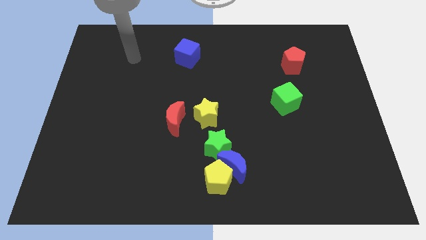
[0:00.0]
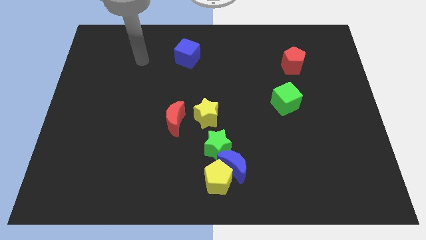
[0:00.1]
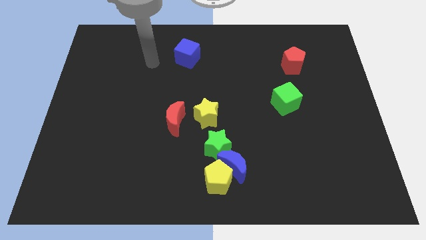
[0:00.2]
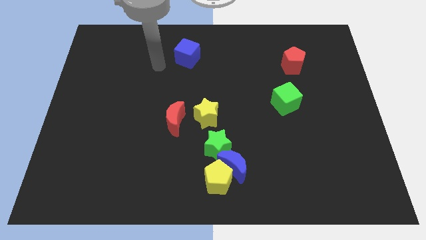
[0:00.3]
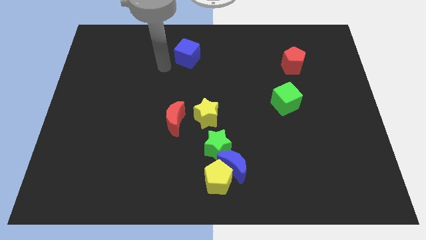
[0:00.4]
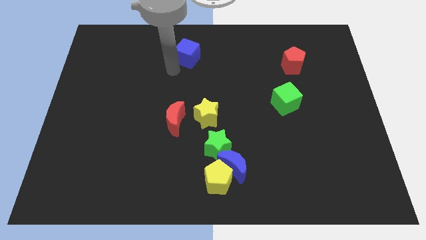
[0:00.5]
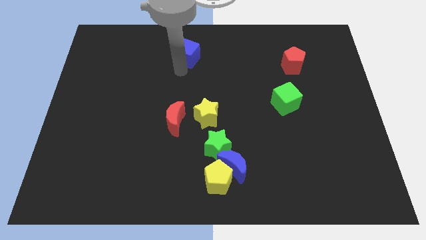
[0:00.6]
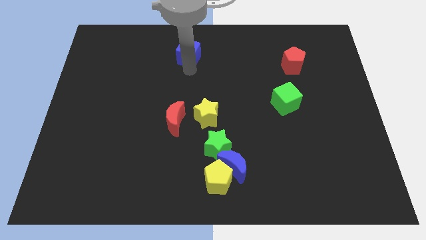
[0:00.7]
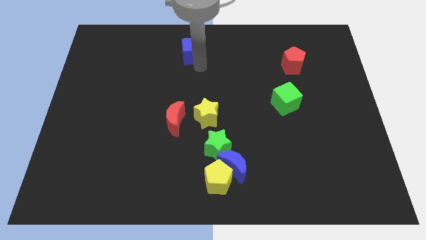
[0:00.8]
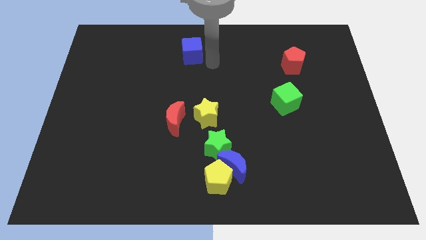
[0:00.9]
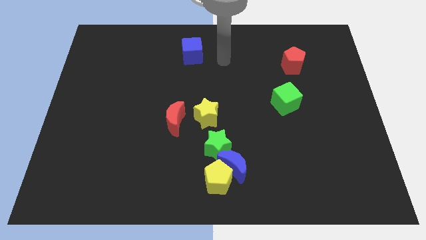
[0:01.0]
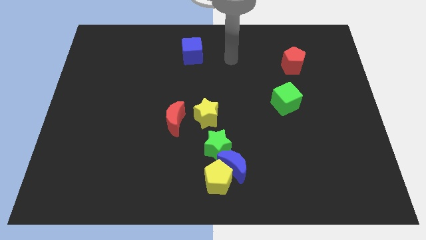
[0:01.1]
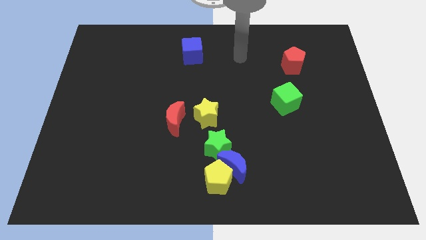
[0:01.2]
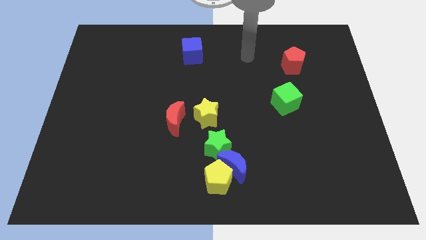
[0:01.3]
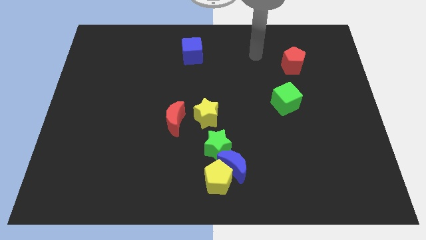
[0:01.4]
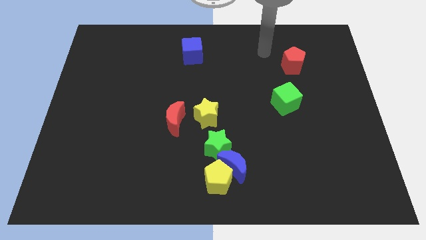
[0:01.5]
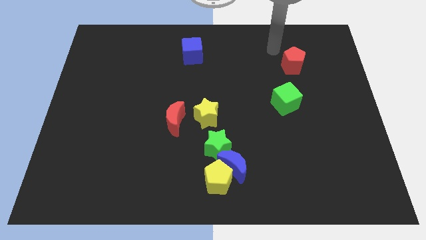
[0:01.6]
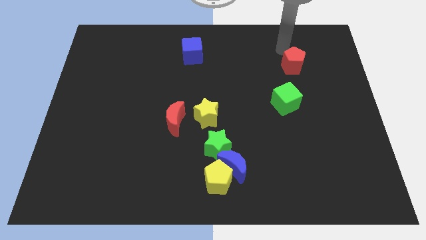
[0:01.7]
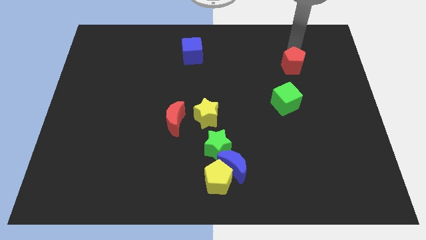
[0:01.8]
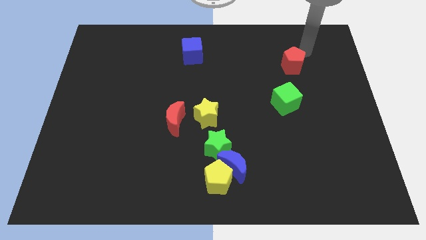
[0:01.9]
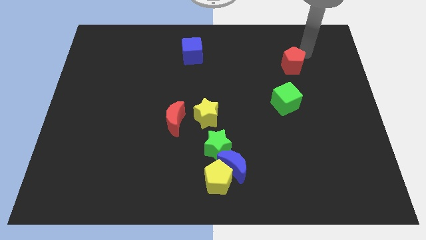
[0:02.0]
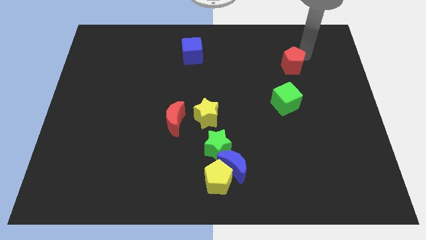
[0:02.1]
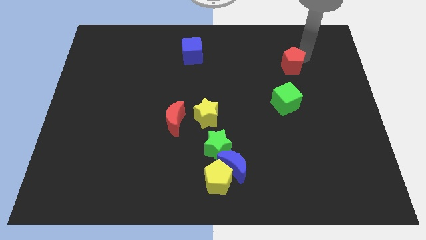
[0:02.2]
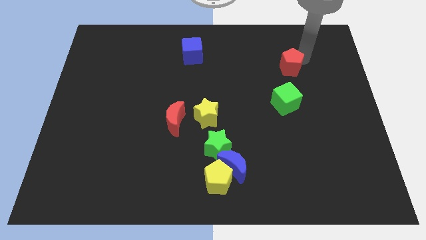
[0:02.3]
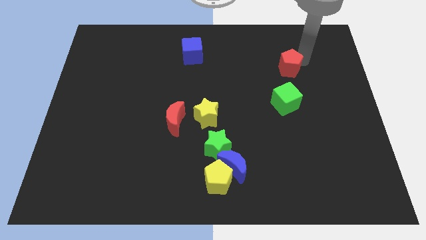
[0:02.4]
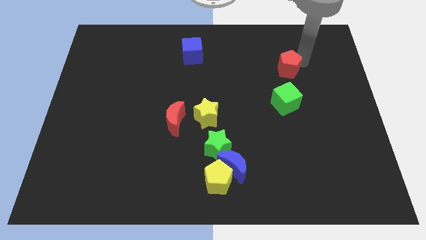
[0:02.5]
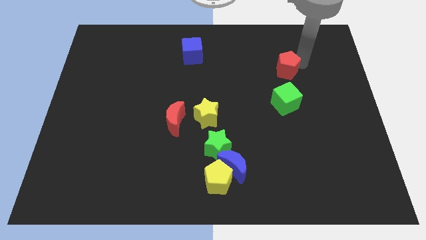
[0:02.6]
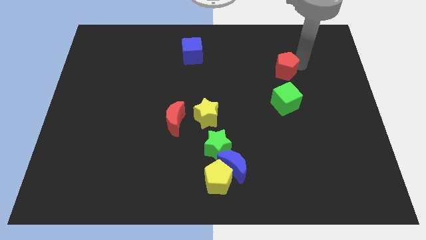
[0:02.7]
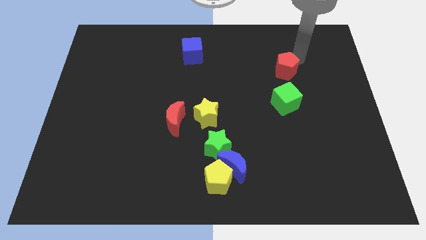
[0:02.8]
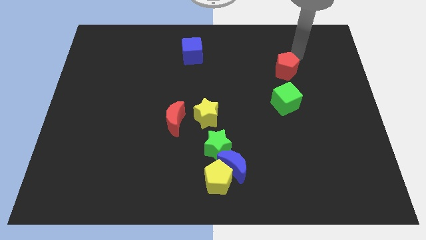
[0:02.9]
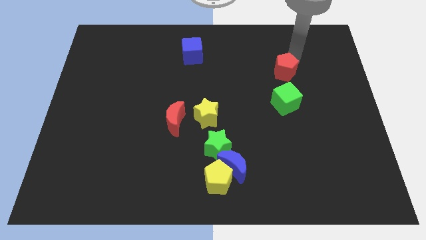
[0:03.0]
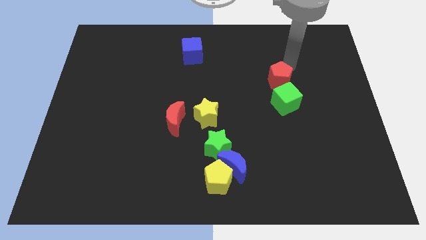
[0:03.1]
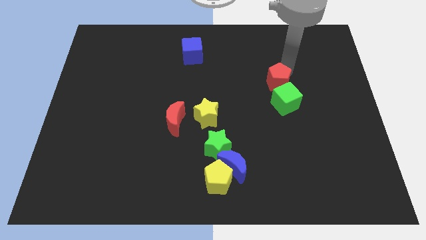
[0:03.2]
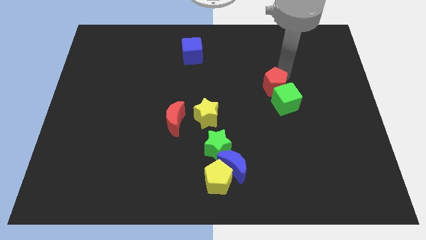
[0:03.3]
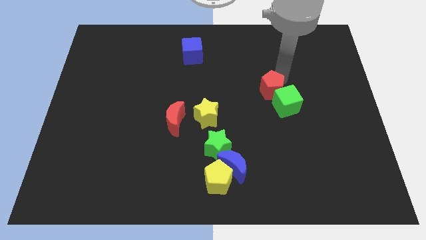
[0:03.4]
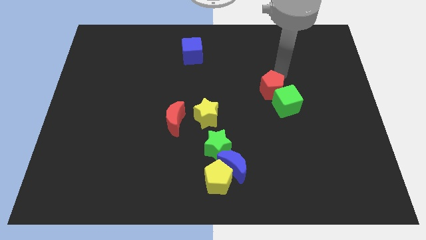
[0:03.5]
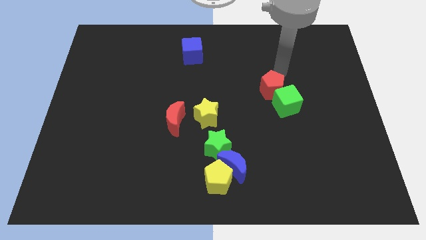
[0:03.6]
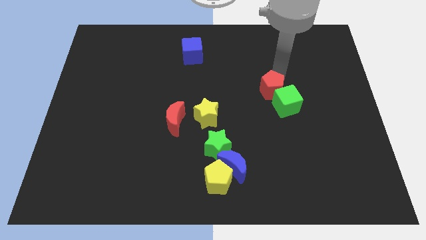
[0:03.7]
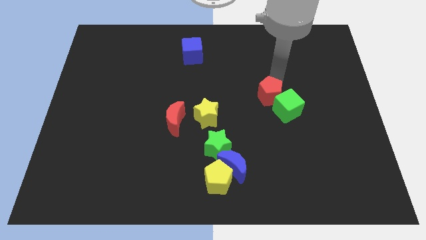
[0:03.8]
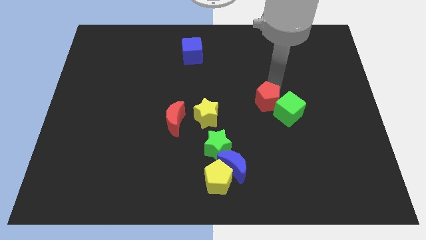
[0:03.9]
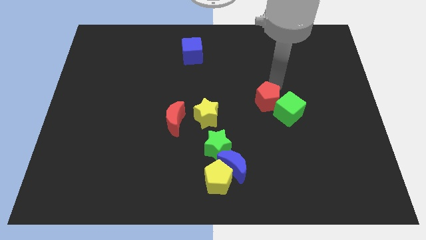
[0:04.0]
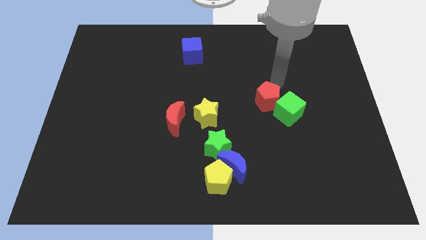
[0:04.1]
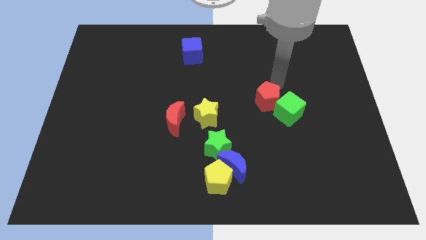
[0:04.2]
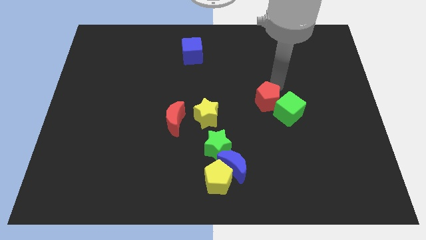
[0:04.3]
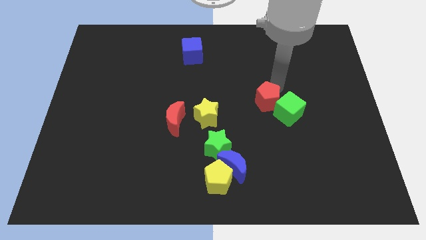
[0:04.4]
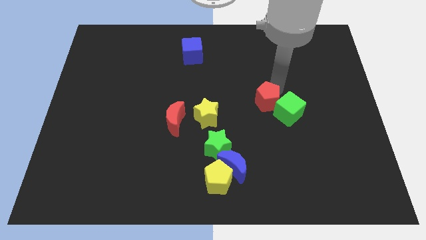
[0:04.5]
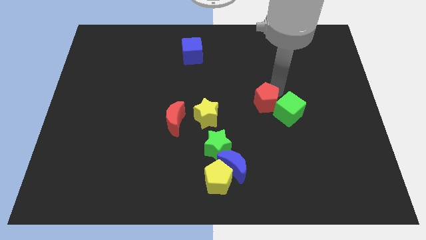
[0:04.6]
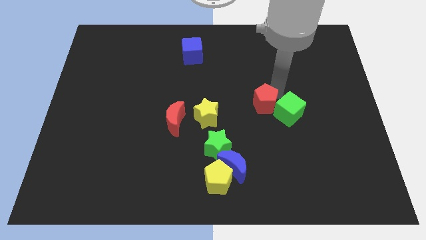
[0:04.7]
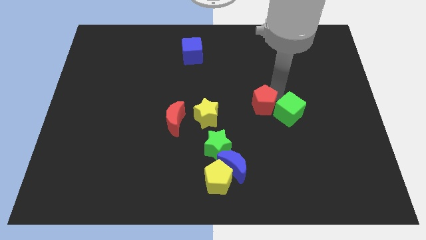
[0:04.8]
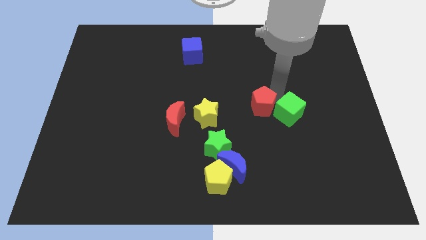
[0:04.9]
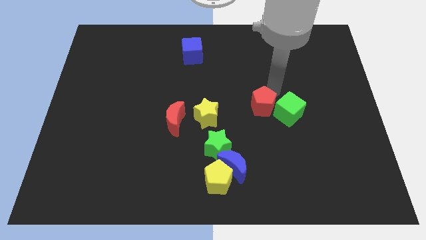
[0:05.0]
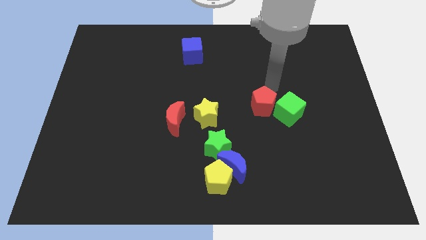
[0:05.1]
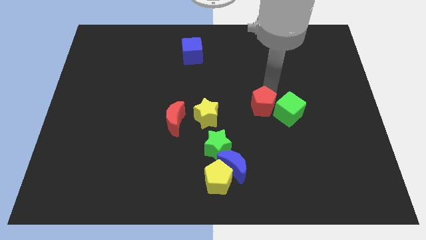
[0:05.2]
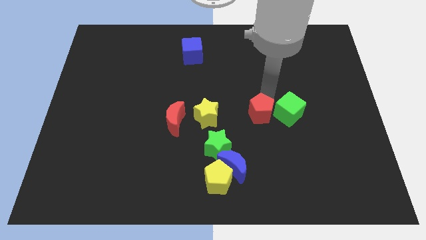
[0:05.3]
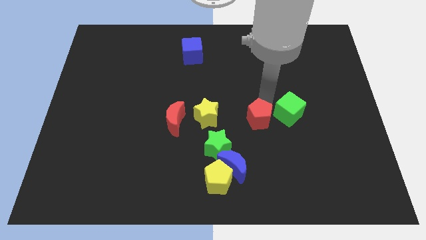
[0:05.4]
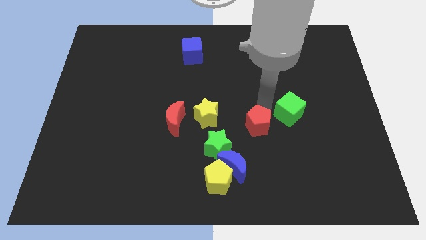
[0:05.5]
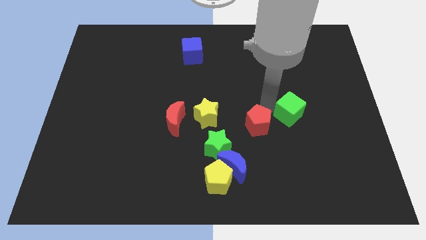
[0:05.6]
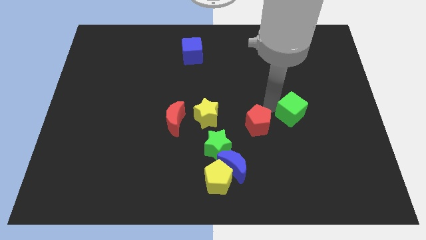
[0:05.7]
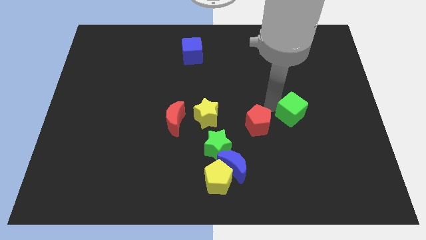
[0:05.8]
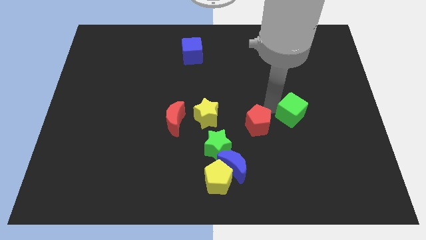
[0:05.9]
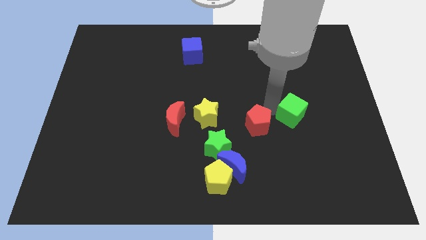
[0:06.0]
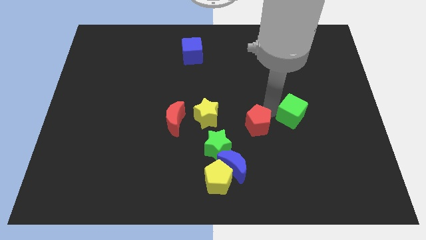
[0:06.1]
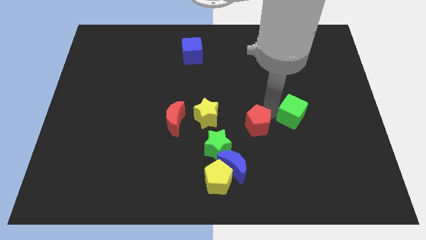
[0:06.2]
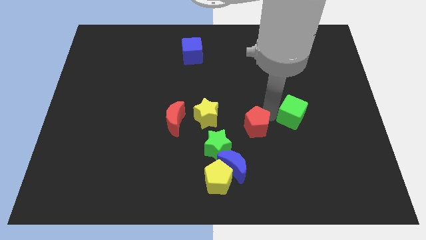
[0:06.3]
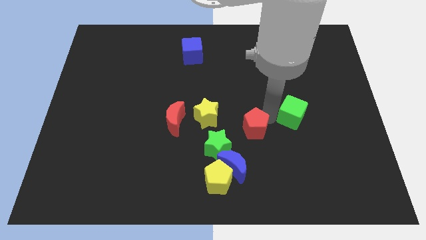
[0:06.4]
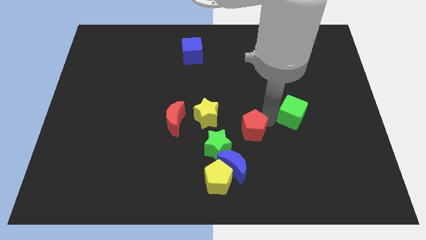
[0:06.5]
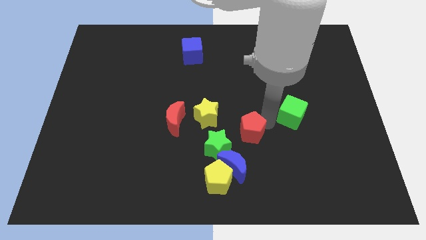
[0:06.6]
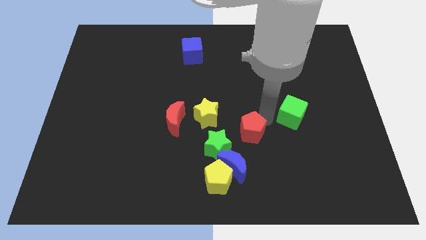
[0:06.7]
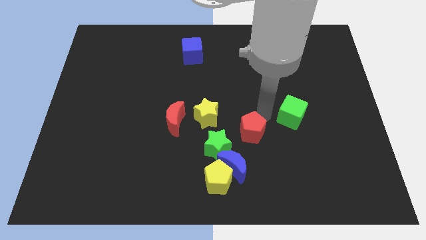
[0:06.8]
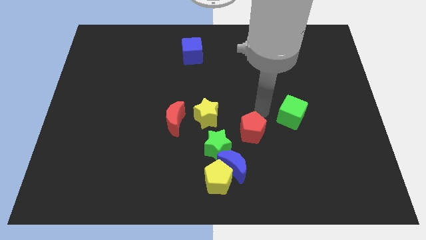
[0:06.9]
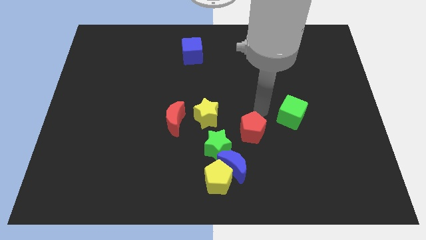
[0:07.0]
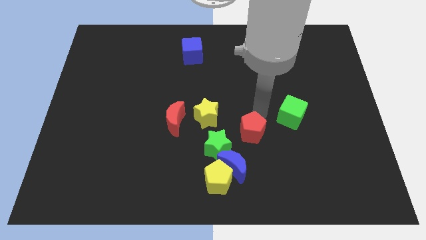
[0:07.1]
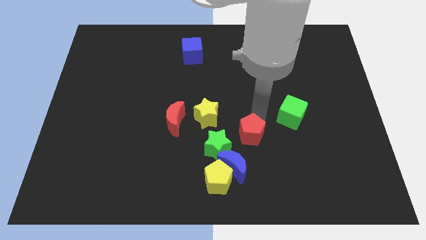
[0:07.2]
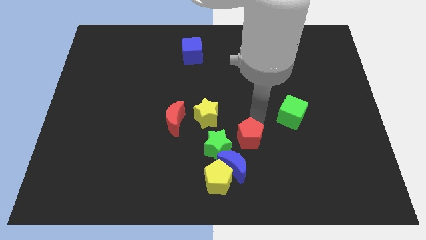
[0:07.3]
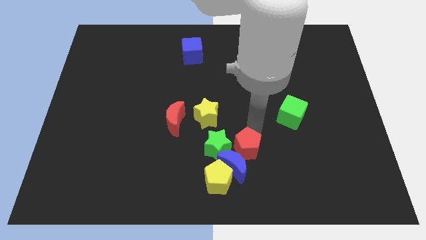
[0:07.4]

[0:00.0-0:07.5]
move the red pentagon next to the blue moon
